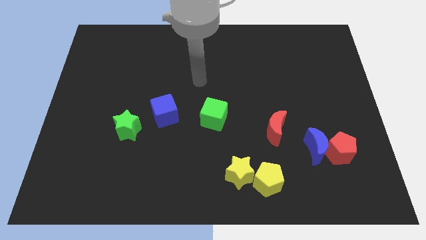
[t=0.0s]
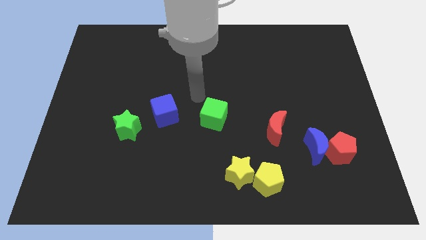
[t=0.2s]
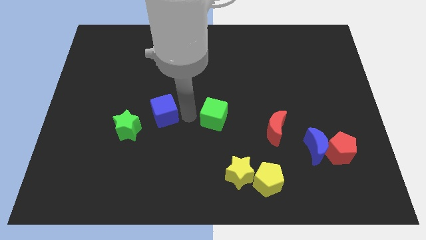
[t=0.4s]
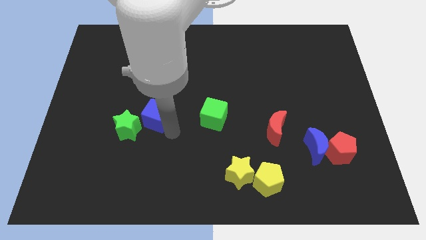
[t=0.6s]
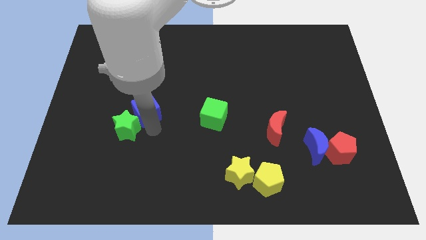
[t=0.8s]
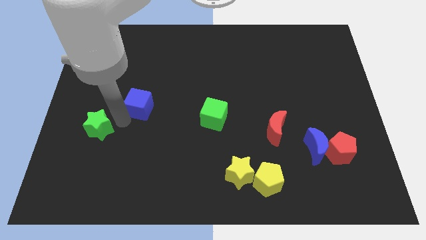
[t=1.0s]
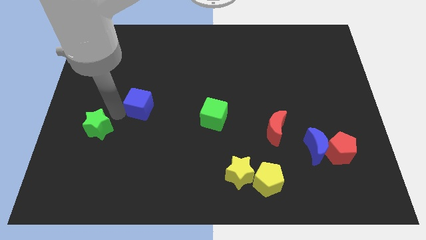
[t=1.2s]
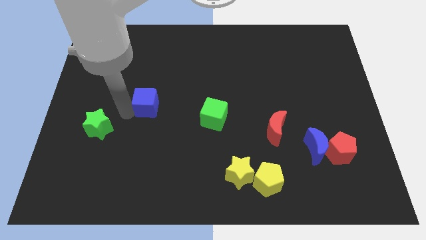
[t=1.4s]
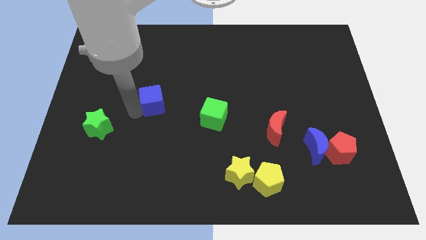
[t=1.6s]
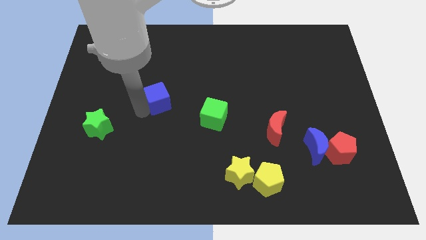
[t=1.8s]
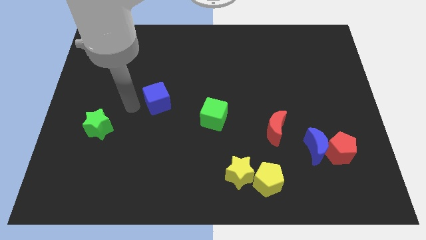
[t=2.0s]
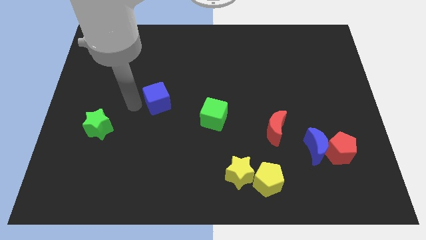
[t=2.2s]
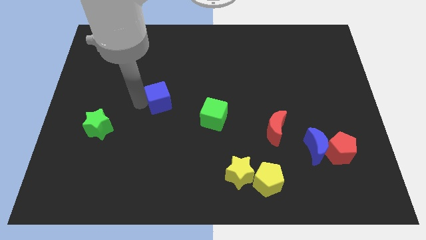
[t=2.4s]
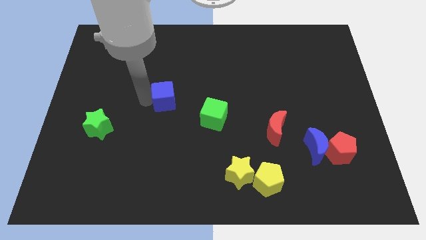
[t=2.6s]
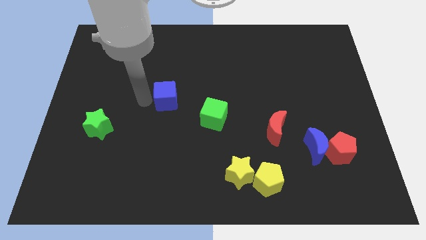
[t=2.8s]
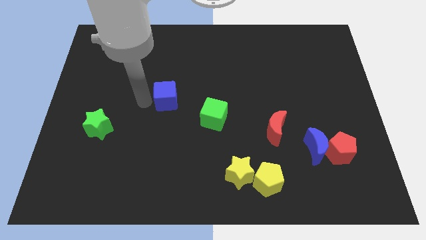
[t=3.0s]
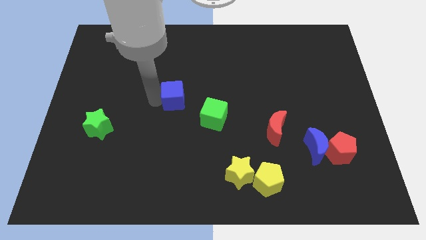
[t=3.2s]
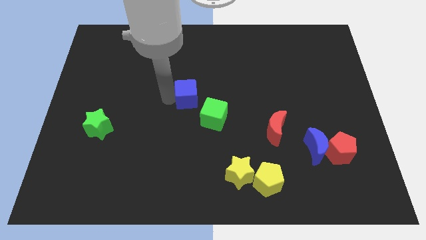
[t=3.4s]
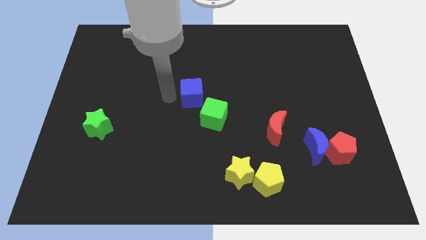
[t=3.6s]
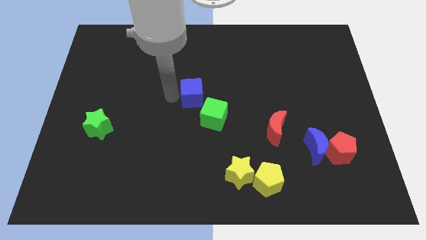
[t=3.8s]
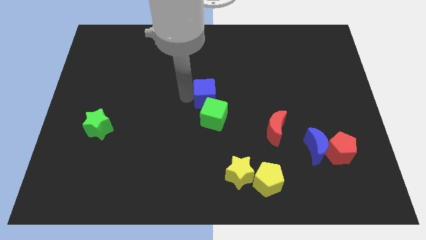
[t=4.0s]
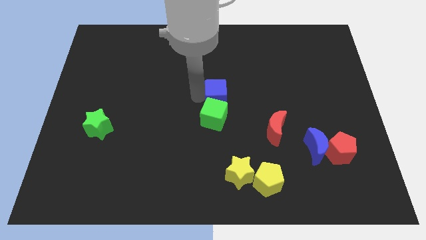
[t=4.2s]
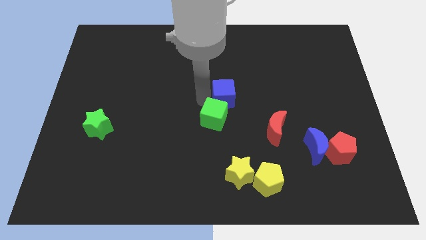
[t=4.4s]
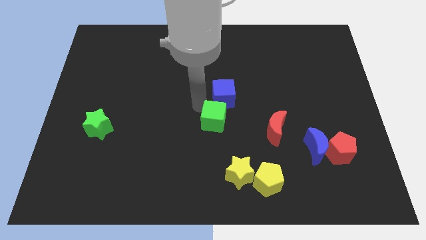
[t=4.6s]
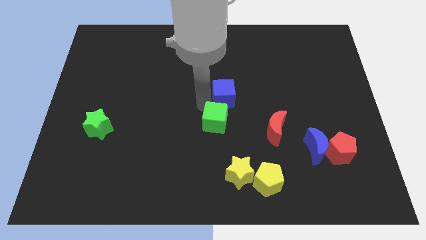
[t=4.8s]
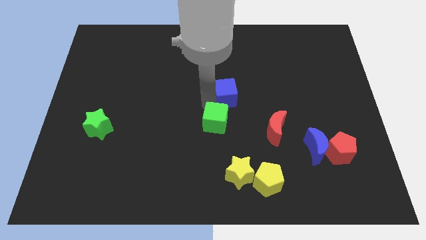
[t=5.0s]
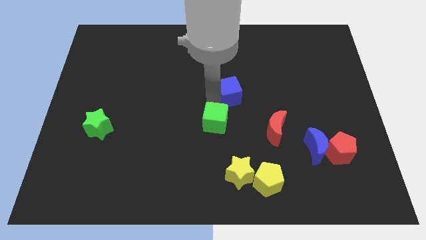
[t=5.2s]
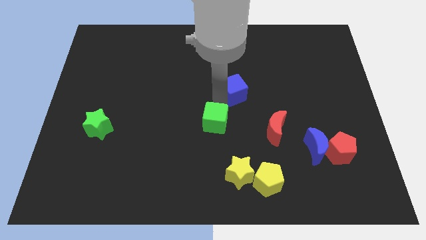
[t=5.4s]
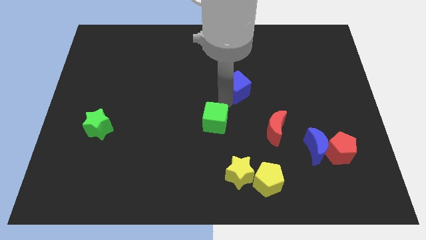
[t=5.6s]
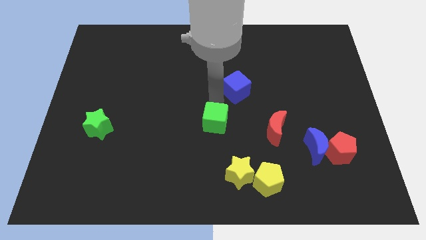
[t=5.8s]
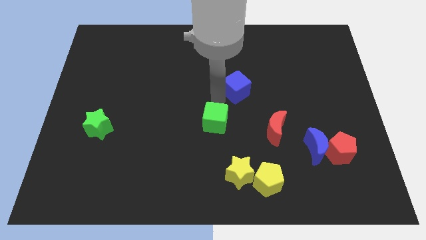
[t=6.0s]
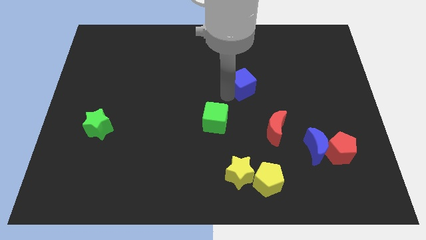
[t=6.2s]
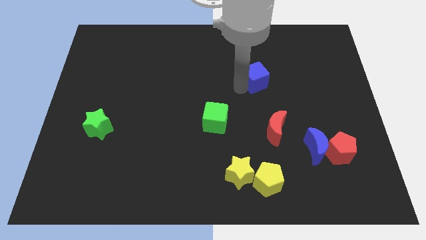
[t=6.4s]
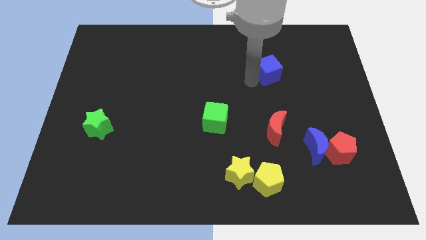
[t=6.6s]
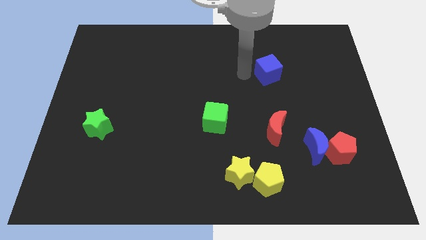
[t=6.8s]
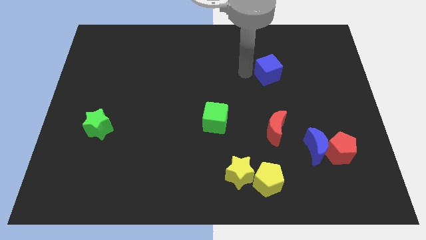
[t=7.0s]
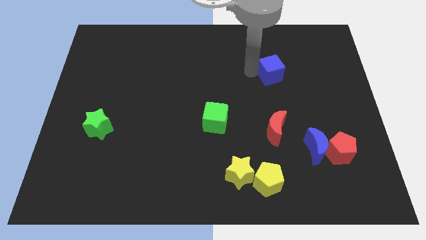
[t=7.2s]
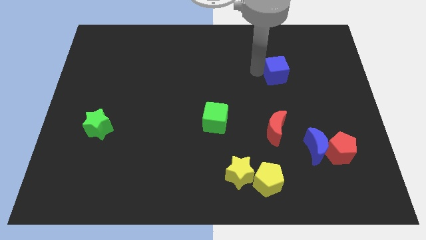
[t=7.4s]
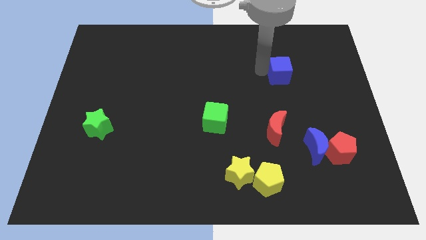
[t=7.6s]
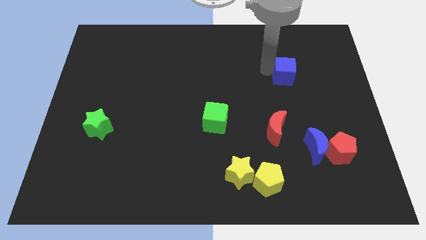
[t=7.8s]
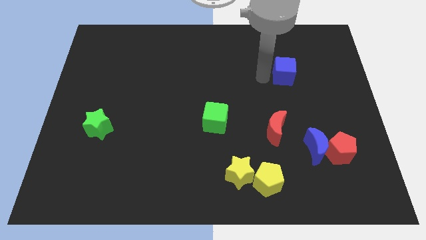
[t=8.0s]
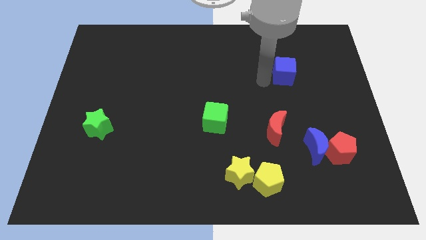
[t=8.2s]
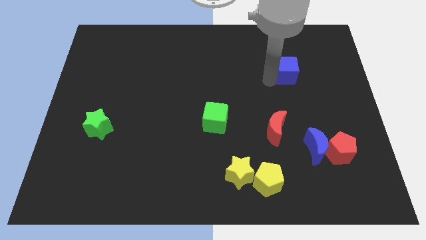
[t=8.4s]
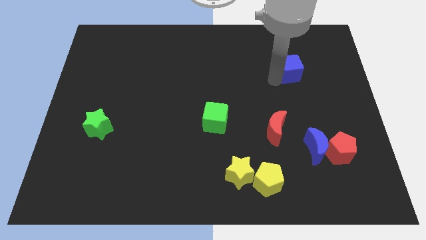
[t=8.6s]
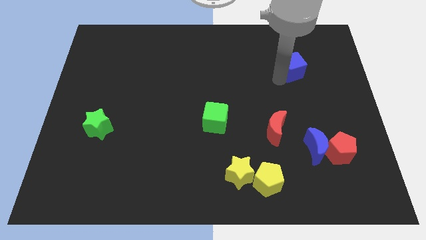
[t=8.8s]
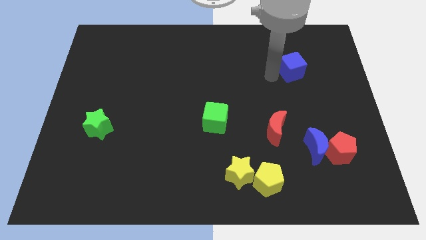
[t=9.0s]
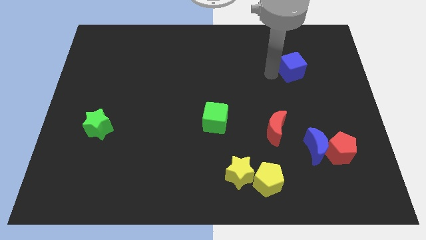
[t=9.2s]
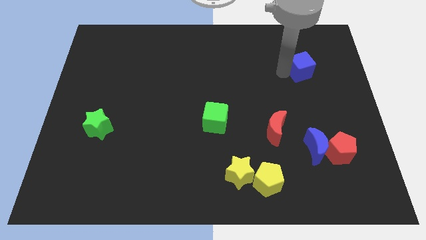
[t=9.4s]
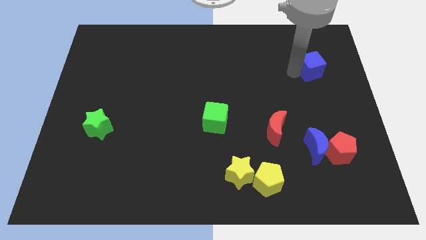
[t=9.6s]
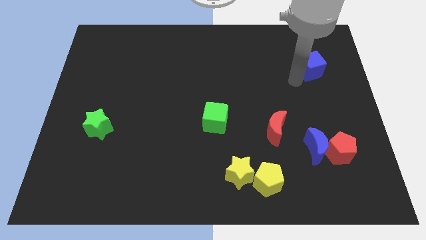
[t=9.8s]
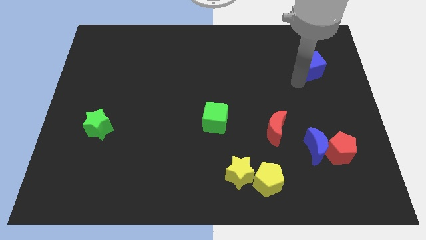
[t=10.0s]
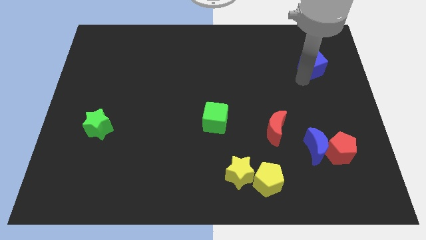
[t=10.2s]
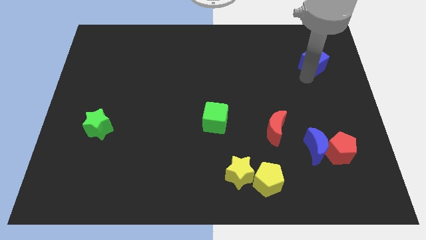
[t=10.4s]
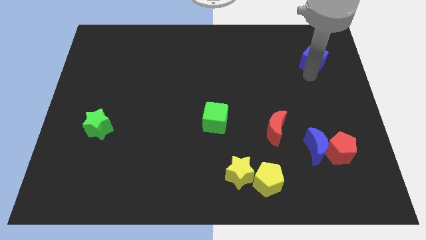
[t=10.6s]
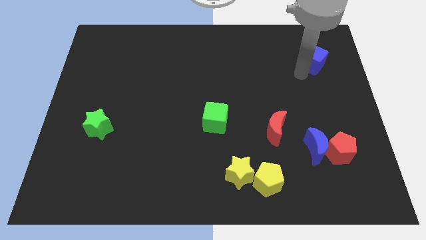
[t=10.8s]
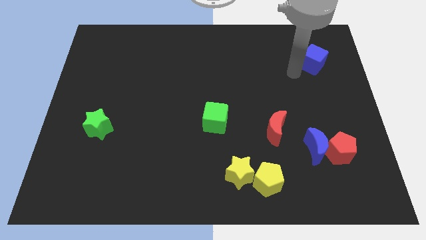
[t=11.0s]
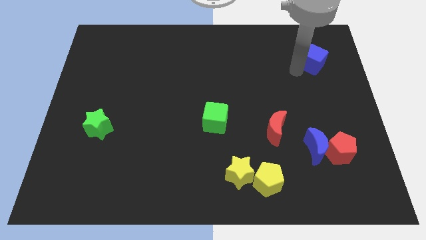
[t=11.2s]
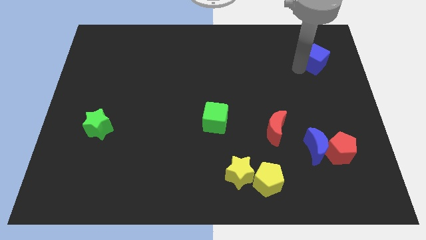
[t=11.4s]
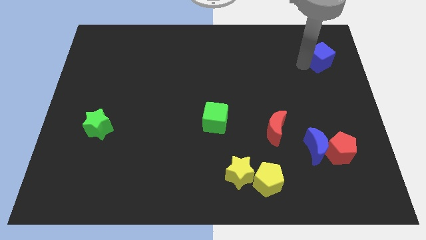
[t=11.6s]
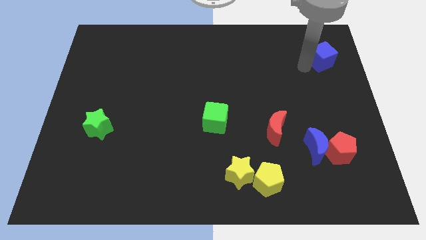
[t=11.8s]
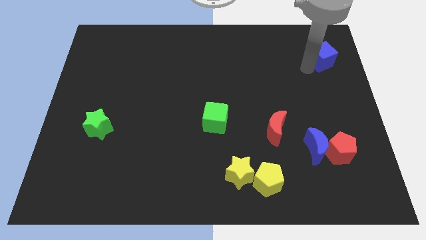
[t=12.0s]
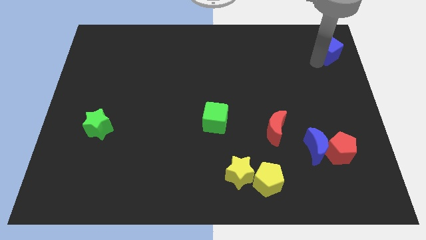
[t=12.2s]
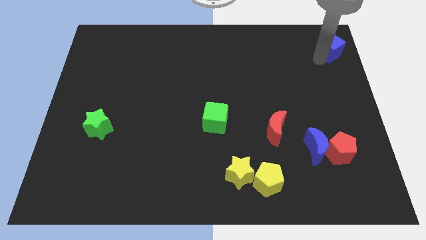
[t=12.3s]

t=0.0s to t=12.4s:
put the blue cube to the upper right corner
